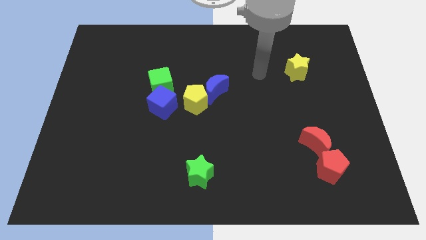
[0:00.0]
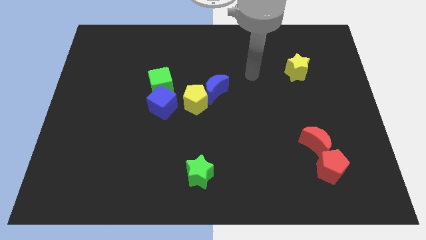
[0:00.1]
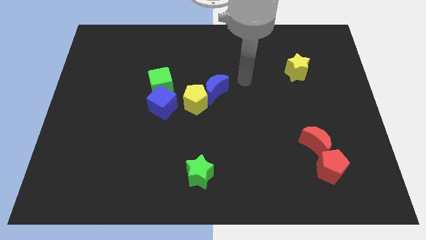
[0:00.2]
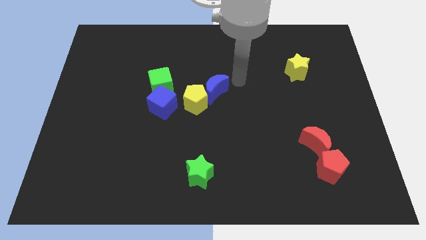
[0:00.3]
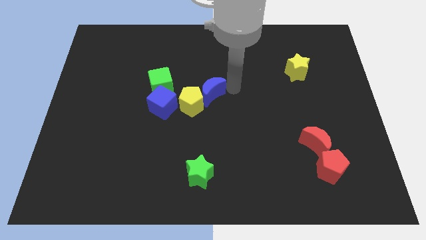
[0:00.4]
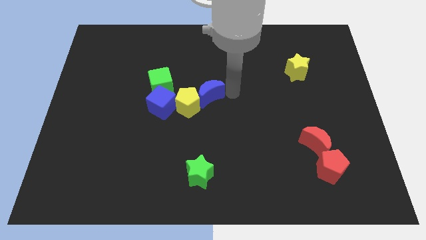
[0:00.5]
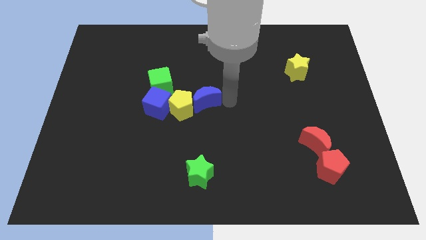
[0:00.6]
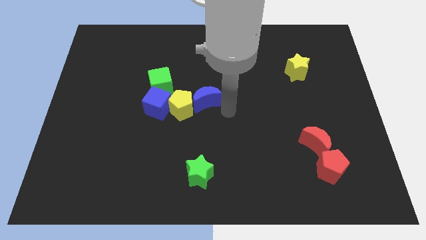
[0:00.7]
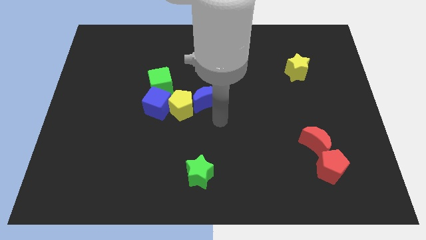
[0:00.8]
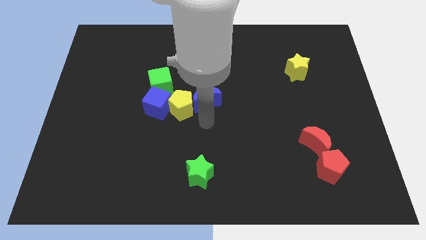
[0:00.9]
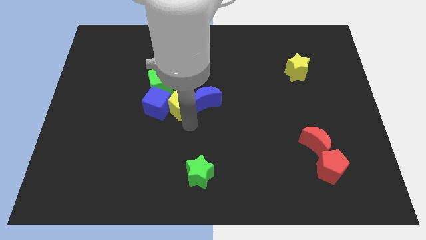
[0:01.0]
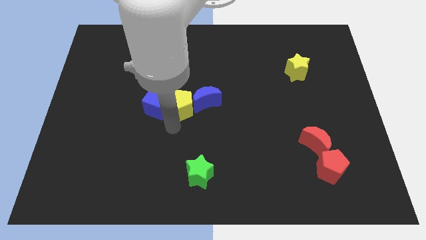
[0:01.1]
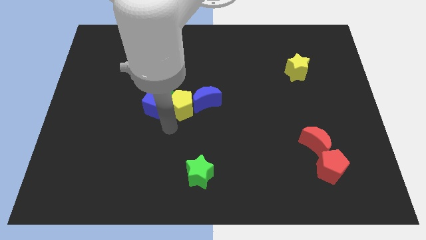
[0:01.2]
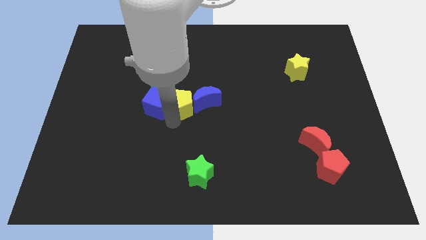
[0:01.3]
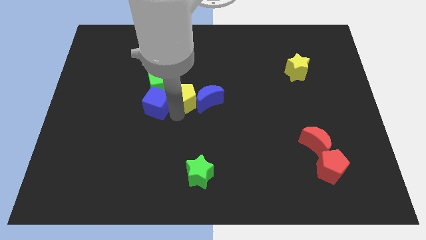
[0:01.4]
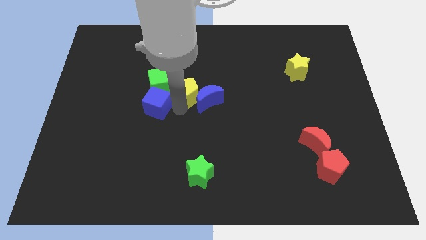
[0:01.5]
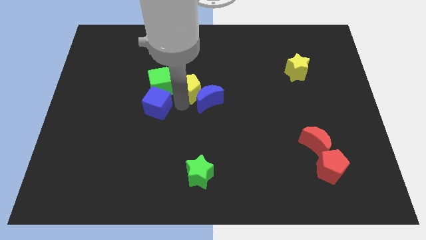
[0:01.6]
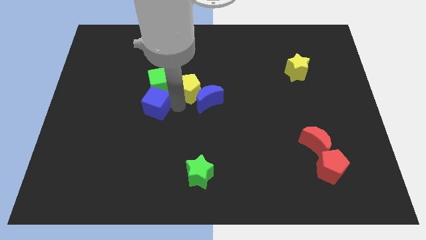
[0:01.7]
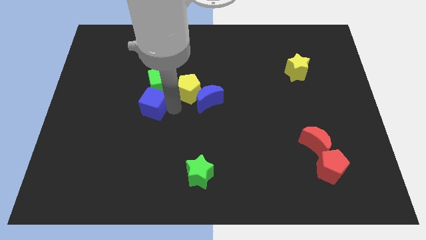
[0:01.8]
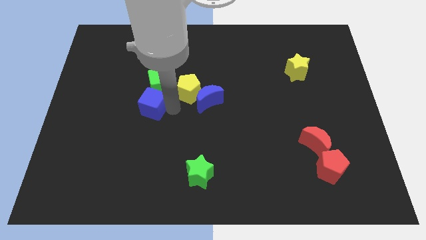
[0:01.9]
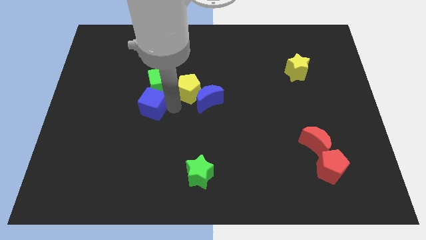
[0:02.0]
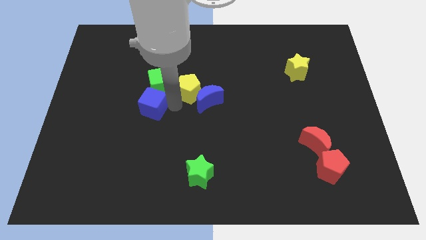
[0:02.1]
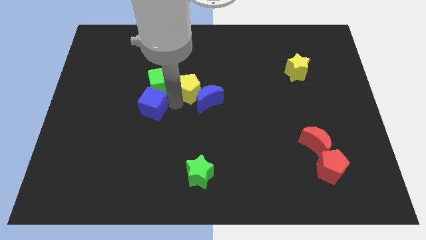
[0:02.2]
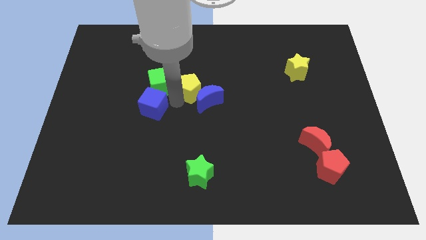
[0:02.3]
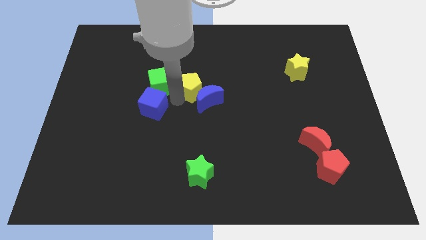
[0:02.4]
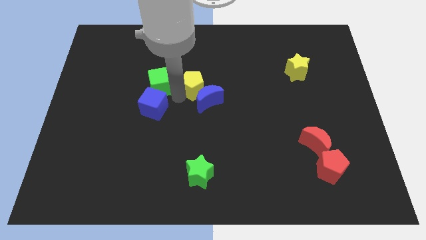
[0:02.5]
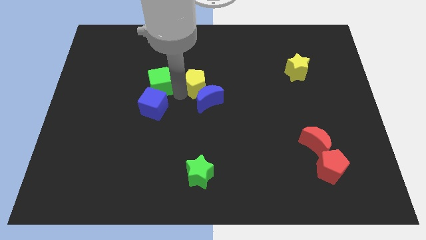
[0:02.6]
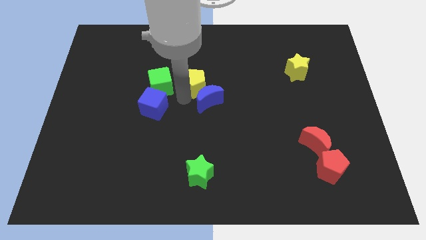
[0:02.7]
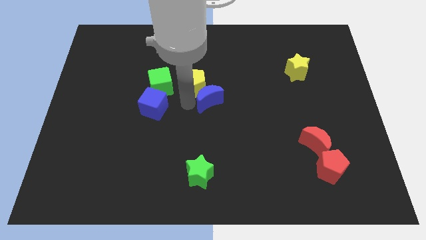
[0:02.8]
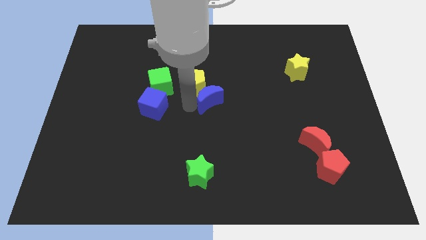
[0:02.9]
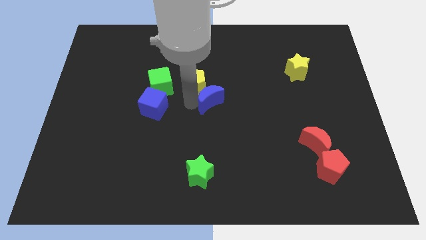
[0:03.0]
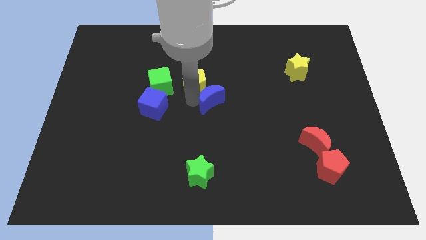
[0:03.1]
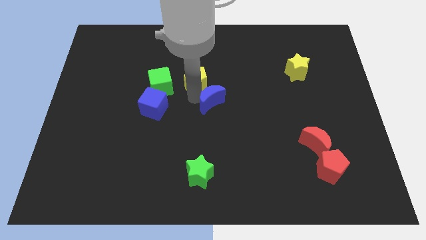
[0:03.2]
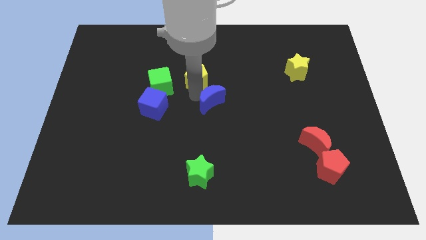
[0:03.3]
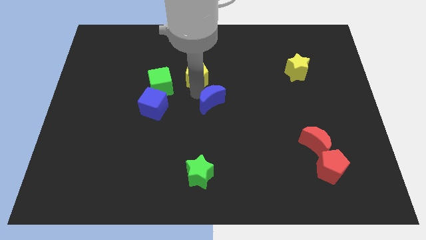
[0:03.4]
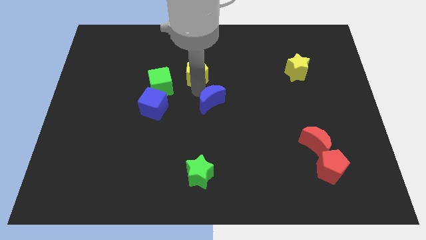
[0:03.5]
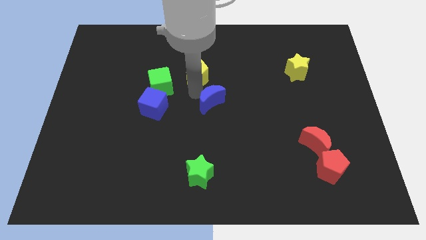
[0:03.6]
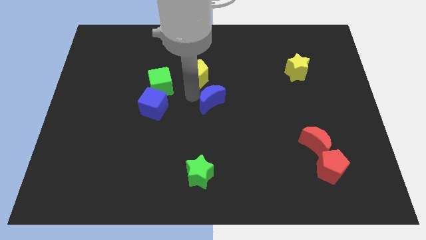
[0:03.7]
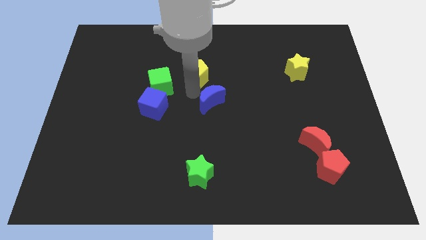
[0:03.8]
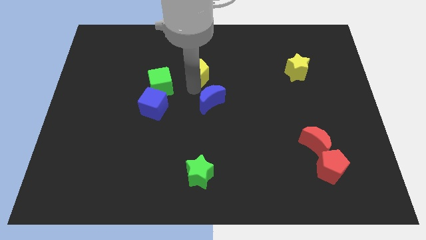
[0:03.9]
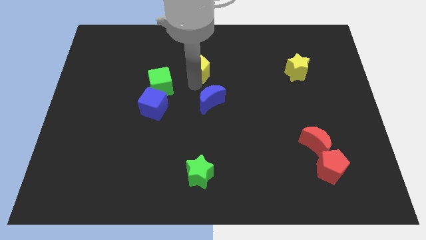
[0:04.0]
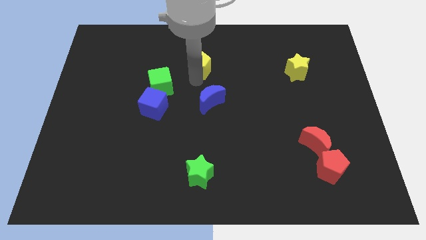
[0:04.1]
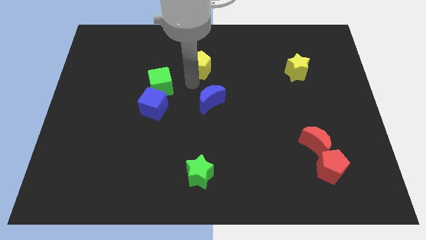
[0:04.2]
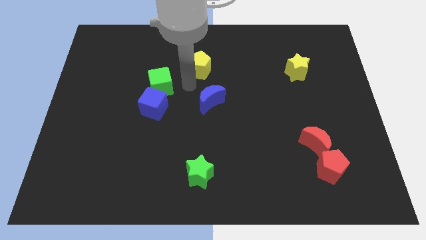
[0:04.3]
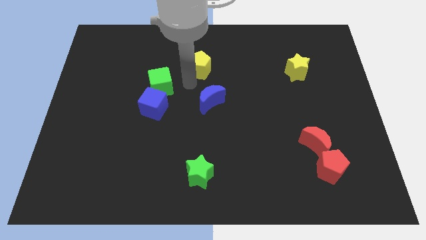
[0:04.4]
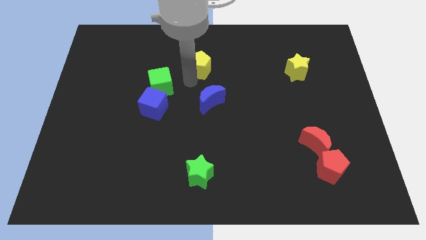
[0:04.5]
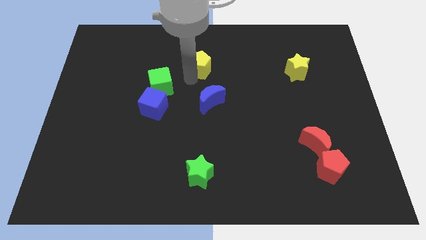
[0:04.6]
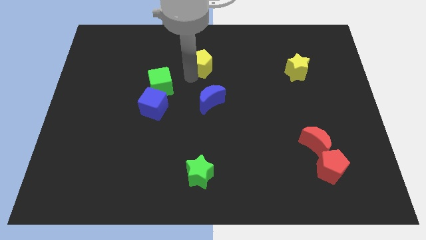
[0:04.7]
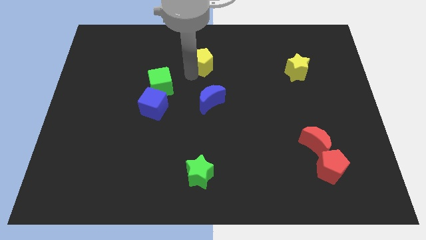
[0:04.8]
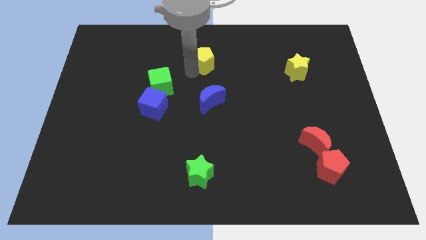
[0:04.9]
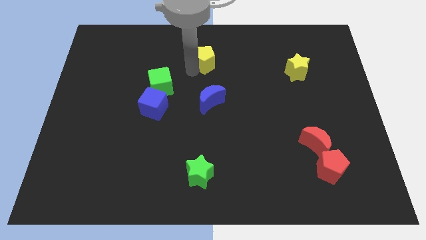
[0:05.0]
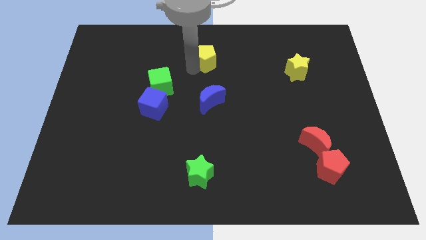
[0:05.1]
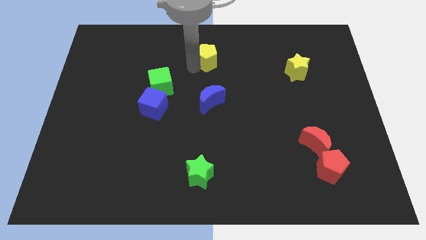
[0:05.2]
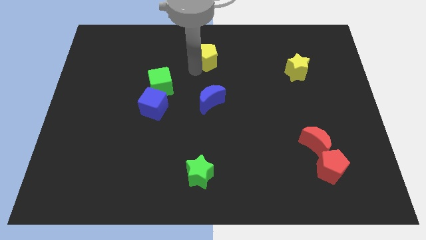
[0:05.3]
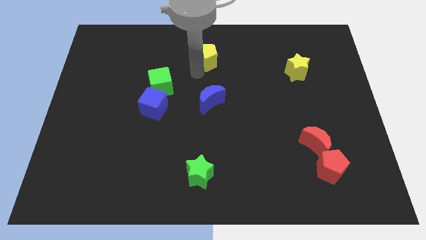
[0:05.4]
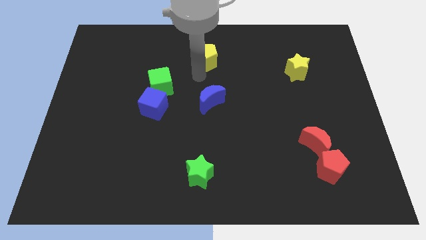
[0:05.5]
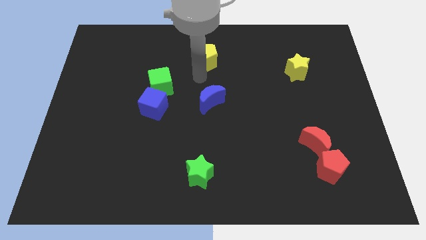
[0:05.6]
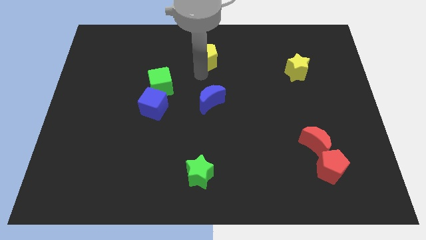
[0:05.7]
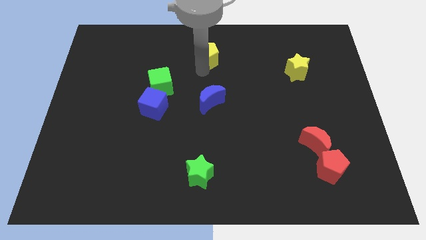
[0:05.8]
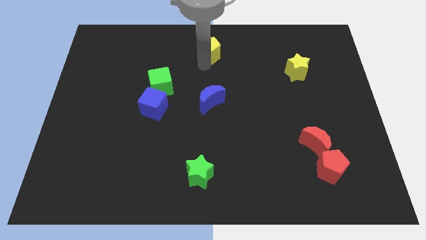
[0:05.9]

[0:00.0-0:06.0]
slide the yellow pentagon to the top side

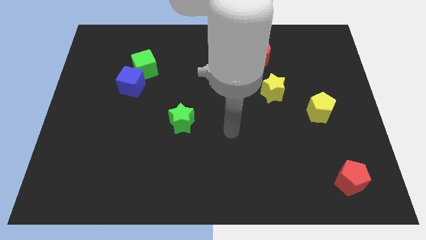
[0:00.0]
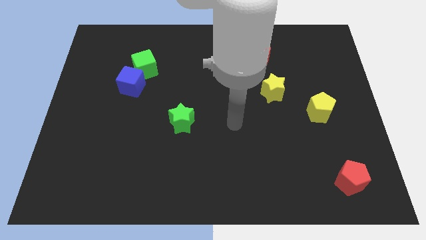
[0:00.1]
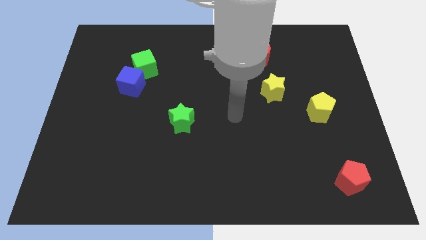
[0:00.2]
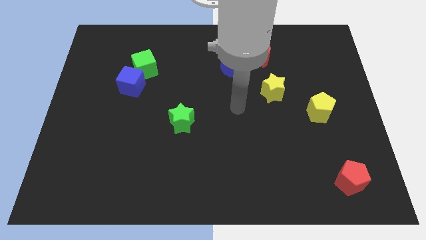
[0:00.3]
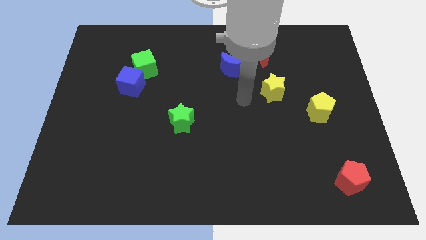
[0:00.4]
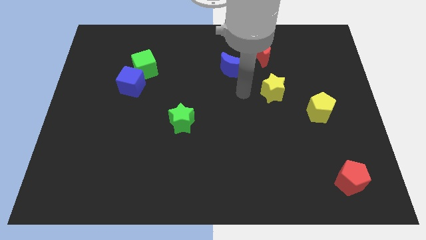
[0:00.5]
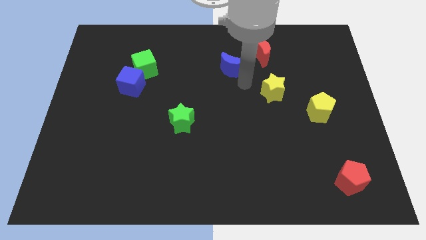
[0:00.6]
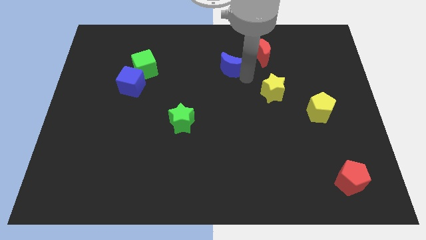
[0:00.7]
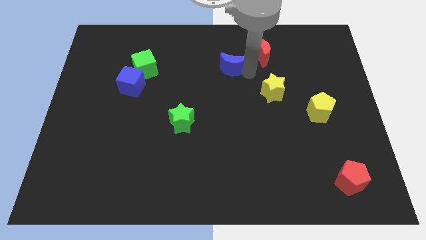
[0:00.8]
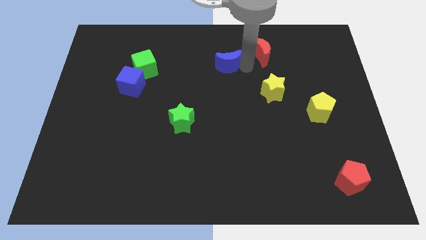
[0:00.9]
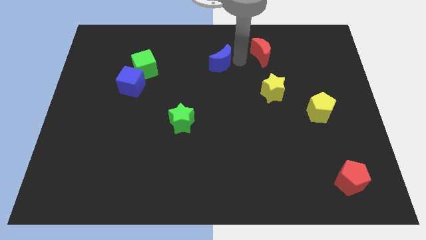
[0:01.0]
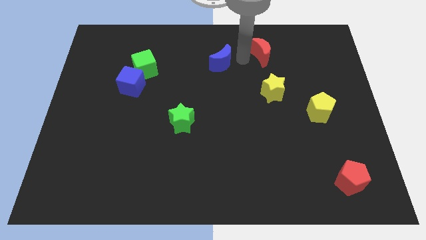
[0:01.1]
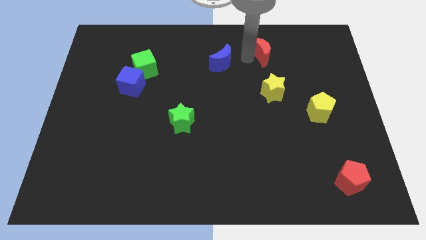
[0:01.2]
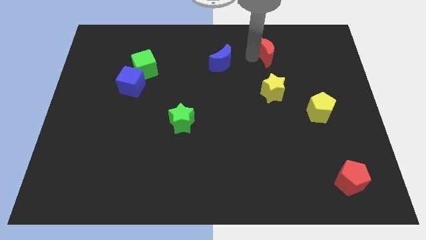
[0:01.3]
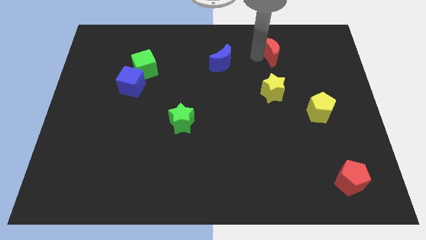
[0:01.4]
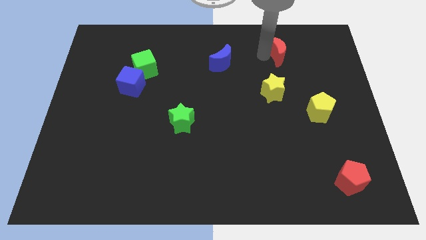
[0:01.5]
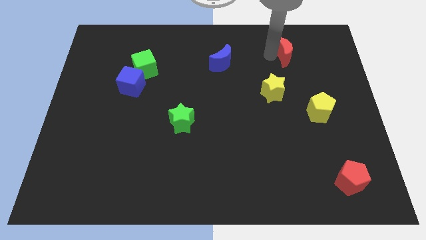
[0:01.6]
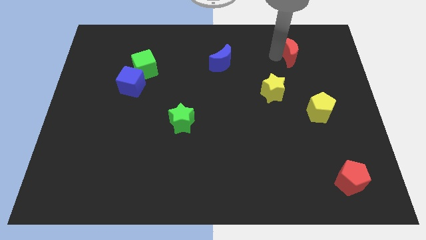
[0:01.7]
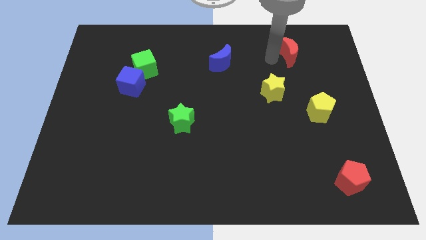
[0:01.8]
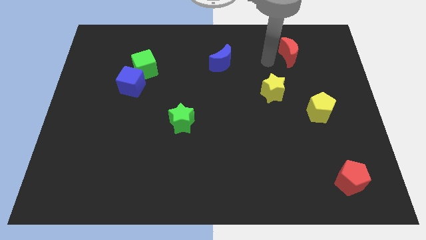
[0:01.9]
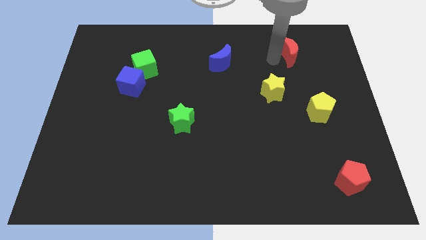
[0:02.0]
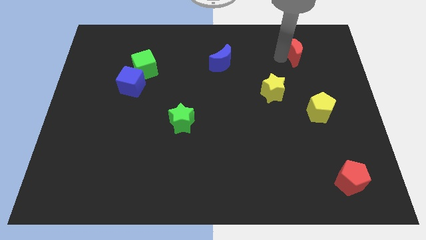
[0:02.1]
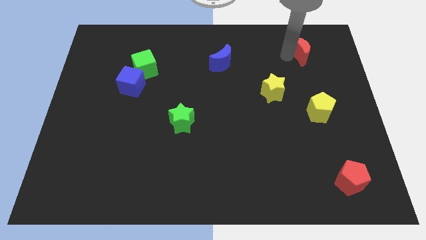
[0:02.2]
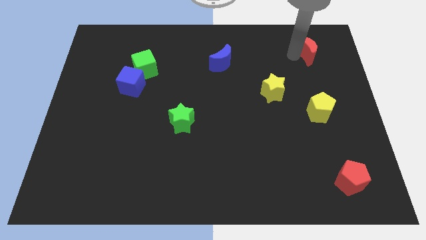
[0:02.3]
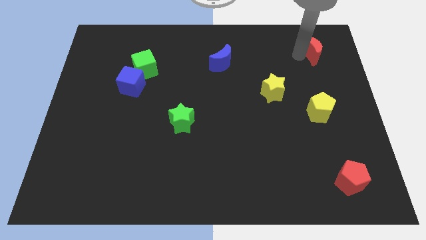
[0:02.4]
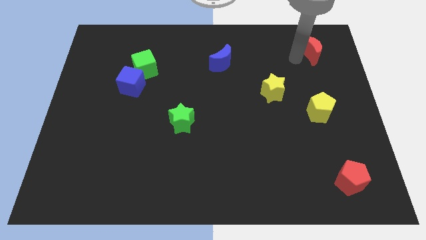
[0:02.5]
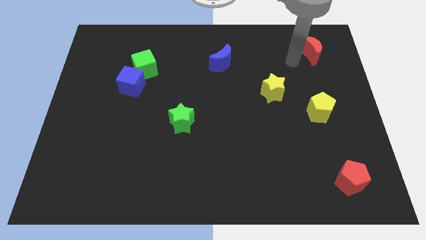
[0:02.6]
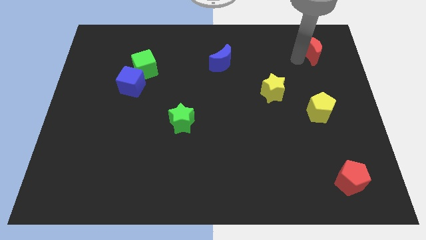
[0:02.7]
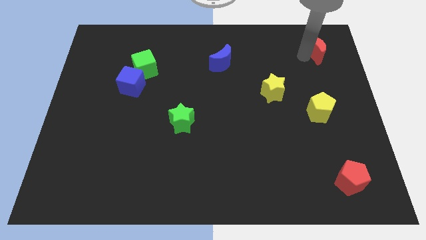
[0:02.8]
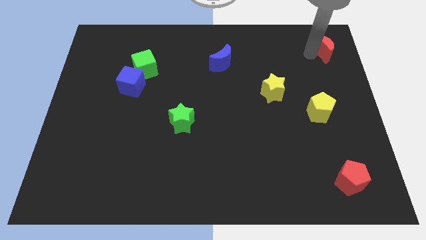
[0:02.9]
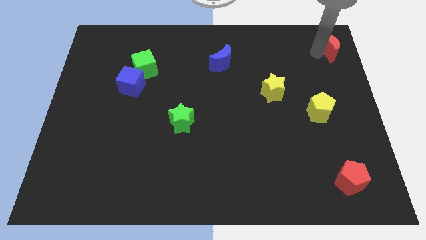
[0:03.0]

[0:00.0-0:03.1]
slide the red moon to the top right
